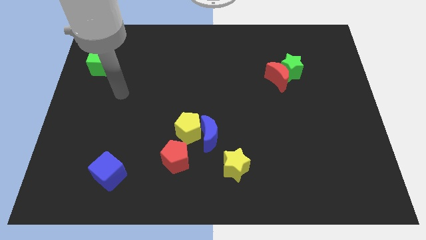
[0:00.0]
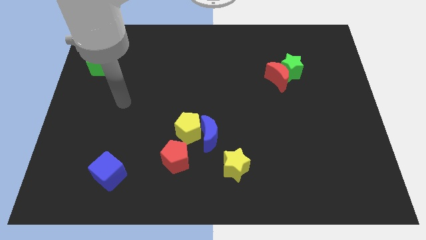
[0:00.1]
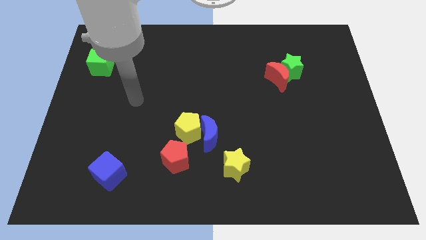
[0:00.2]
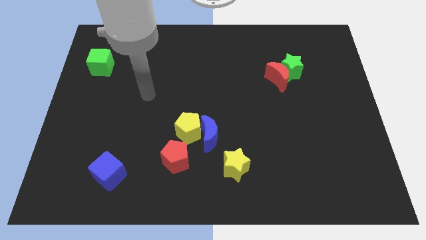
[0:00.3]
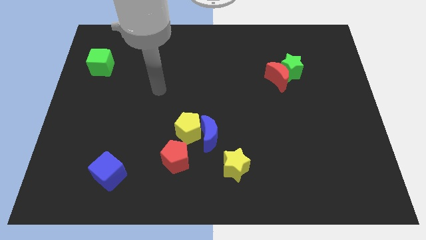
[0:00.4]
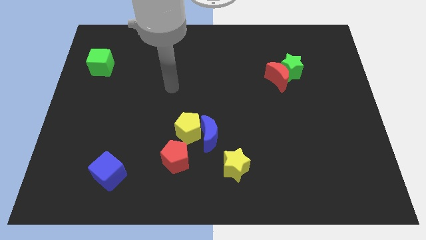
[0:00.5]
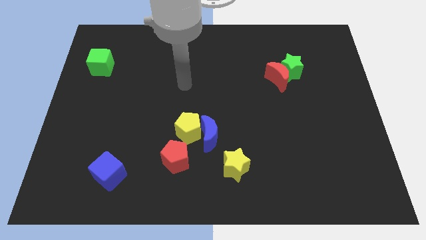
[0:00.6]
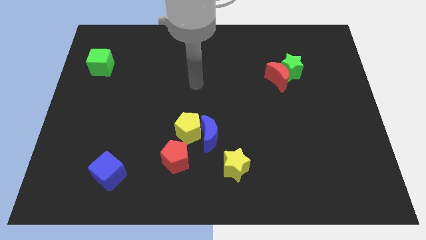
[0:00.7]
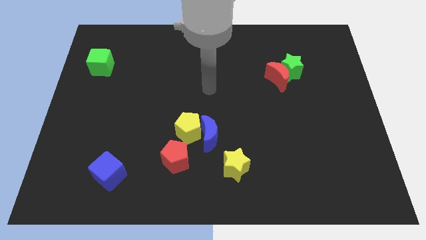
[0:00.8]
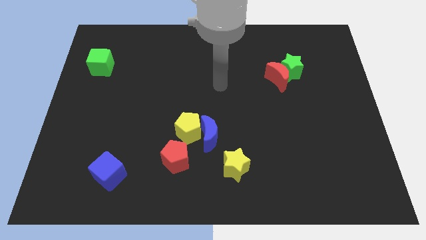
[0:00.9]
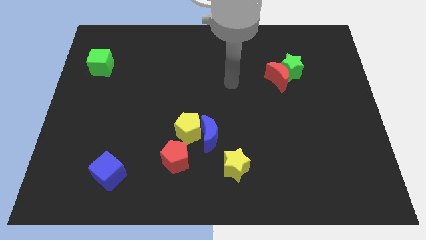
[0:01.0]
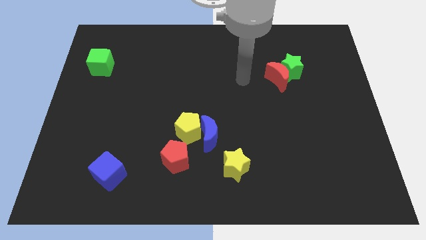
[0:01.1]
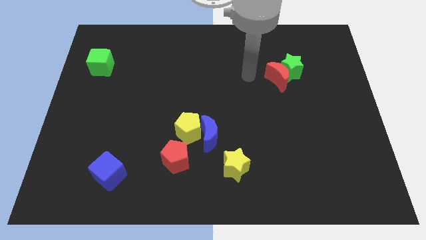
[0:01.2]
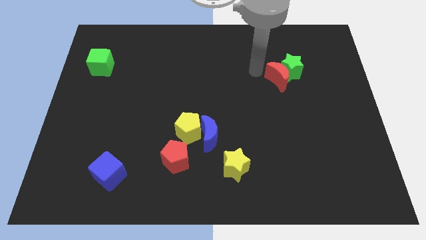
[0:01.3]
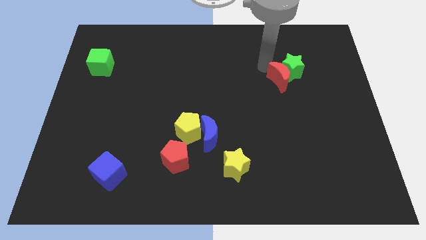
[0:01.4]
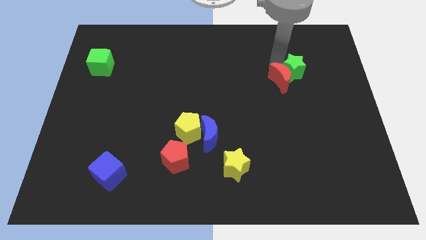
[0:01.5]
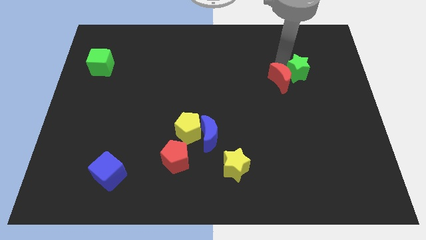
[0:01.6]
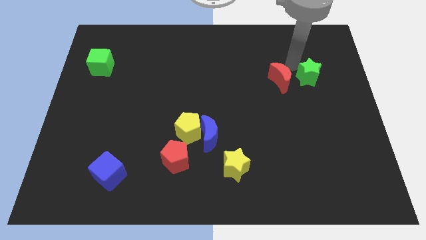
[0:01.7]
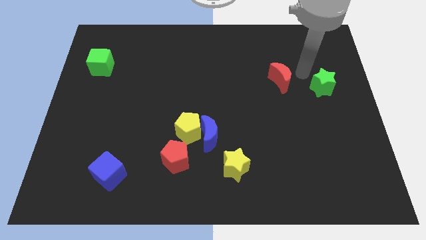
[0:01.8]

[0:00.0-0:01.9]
separate the red moon from the green star

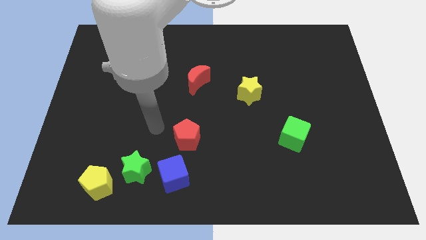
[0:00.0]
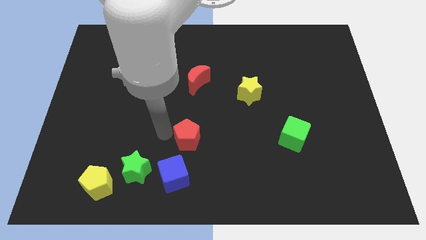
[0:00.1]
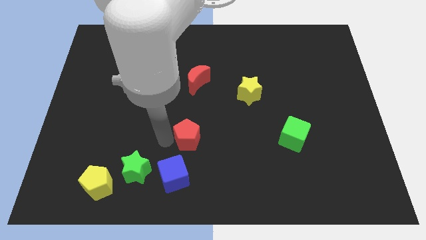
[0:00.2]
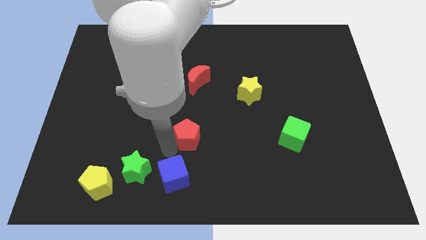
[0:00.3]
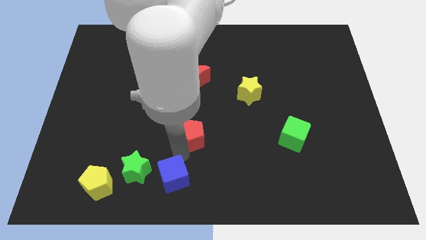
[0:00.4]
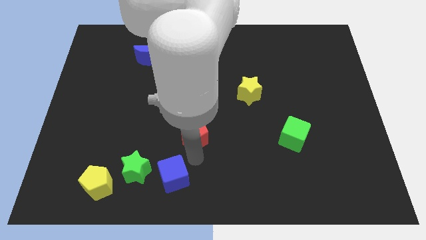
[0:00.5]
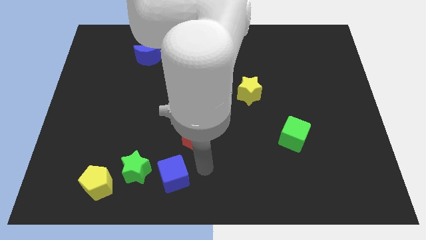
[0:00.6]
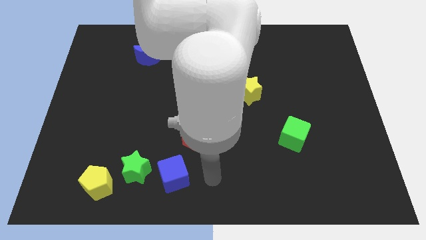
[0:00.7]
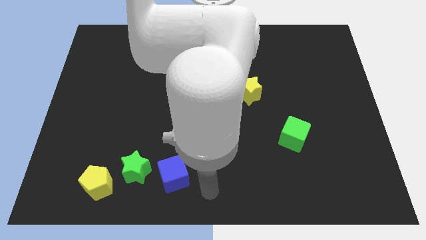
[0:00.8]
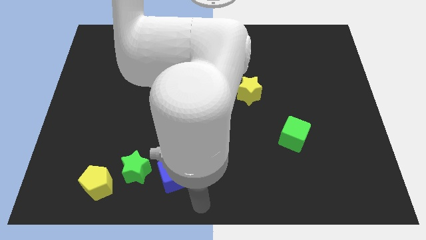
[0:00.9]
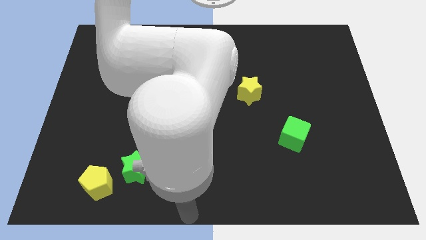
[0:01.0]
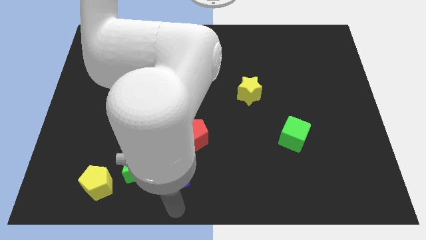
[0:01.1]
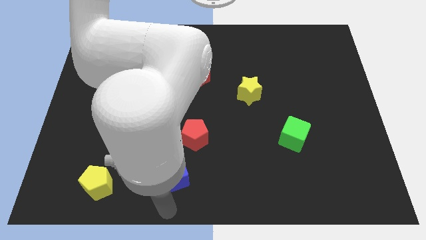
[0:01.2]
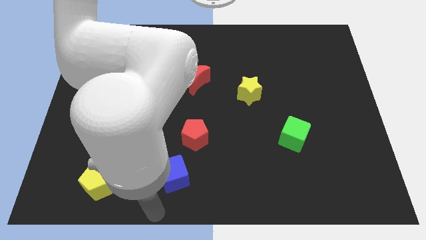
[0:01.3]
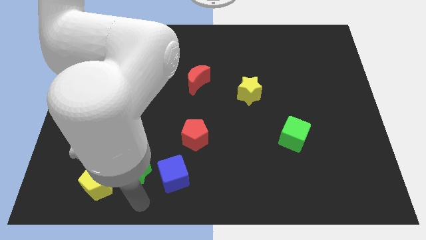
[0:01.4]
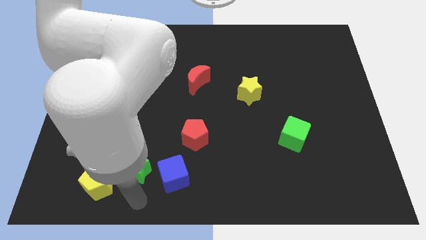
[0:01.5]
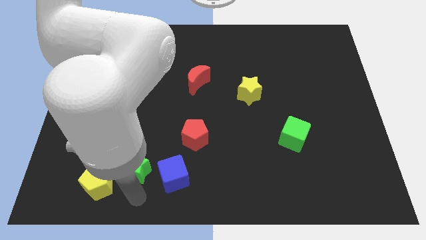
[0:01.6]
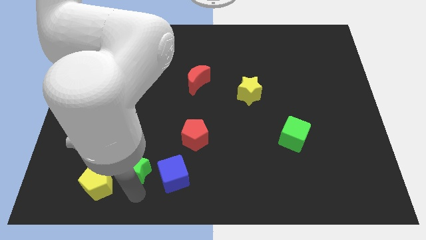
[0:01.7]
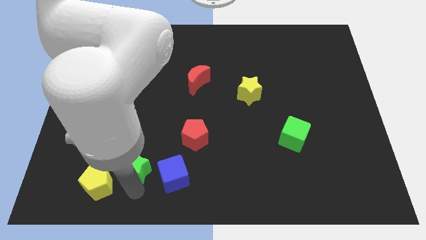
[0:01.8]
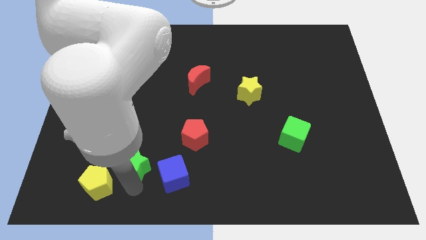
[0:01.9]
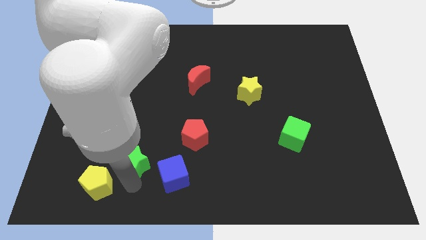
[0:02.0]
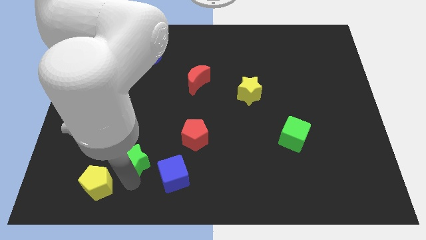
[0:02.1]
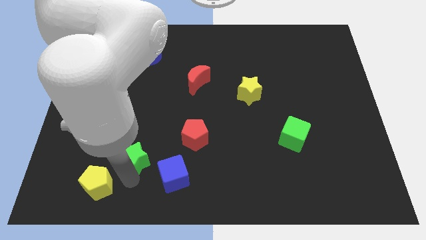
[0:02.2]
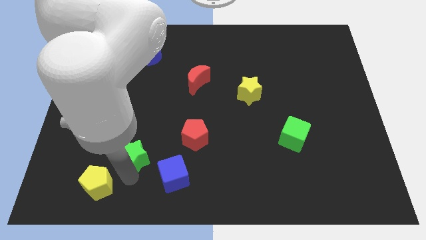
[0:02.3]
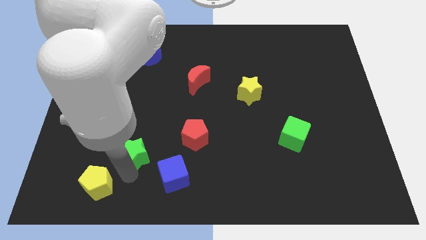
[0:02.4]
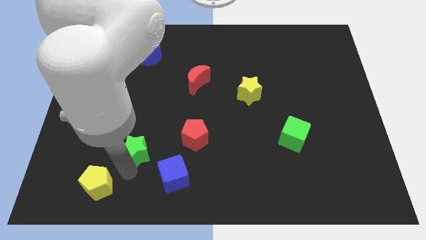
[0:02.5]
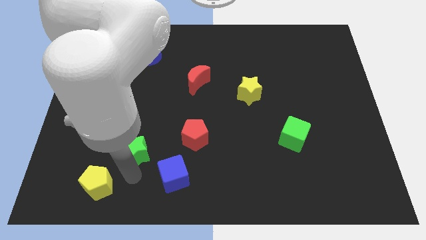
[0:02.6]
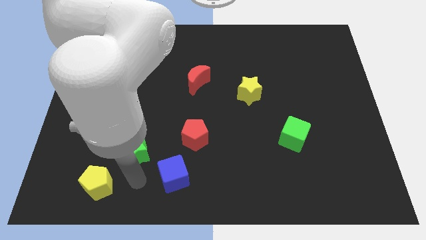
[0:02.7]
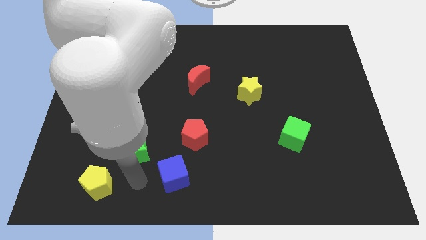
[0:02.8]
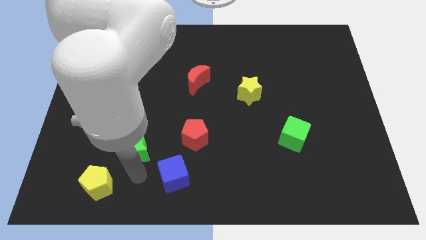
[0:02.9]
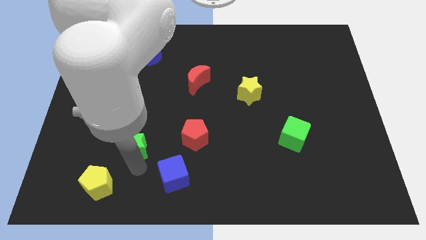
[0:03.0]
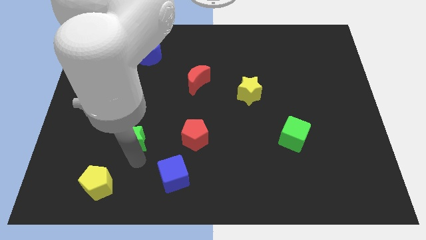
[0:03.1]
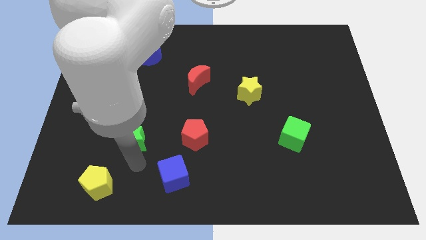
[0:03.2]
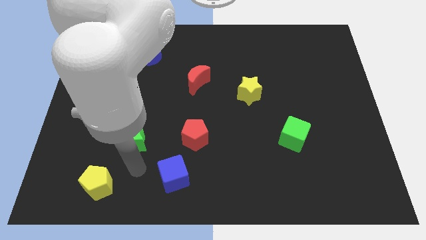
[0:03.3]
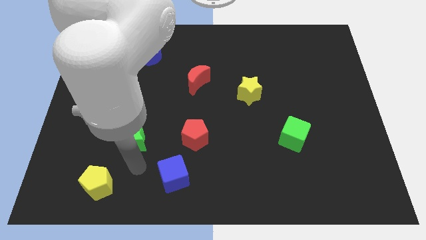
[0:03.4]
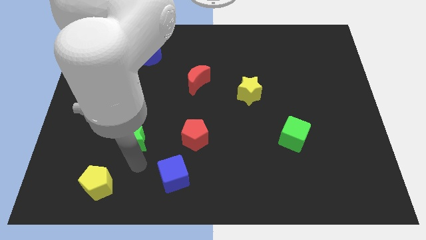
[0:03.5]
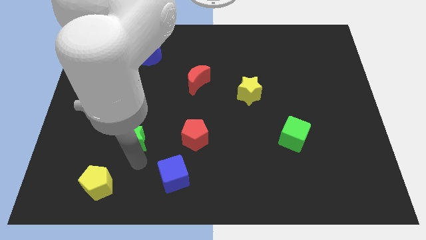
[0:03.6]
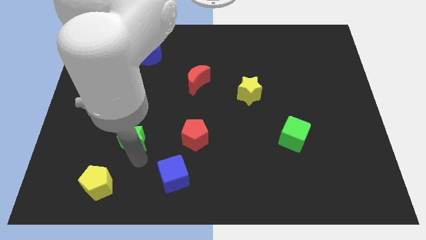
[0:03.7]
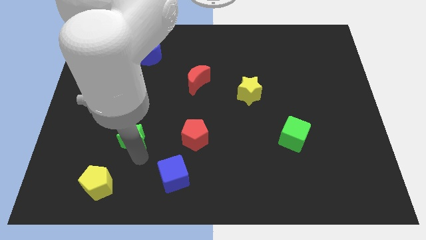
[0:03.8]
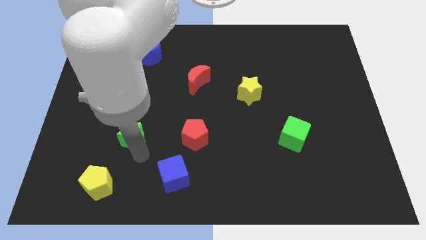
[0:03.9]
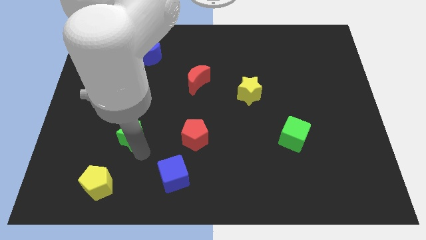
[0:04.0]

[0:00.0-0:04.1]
separate the green star from the blue cube and yellow pentagon

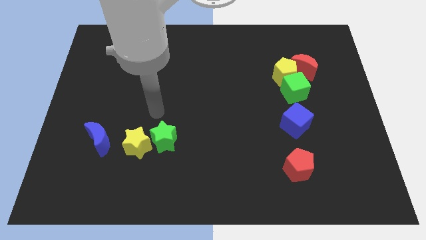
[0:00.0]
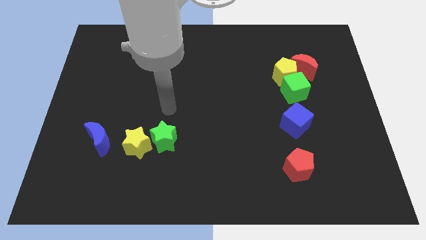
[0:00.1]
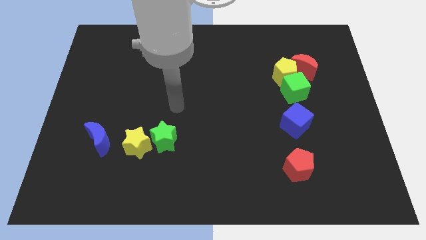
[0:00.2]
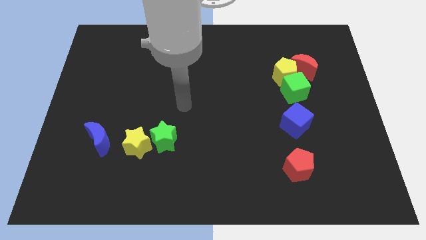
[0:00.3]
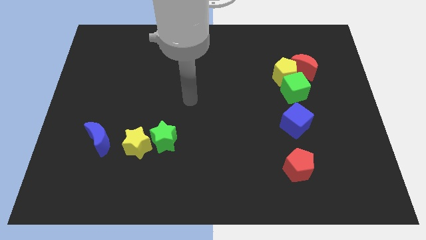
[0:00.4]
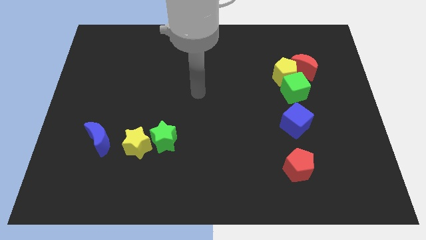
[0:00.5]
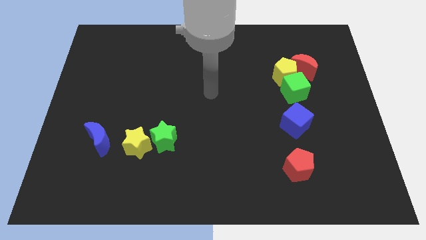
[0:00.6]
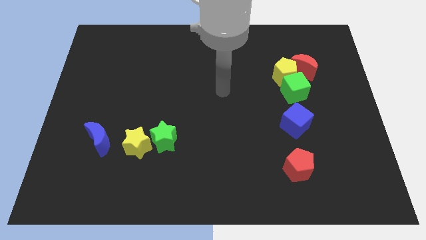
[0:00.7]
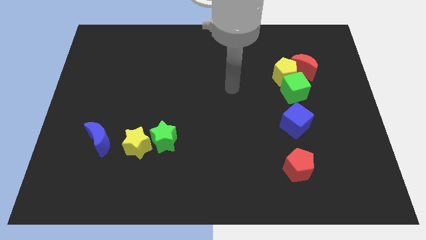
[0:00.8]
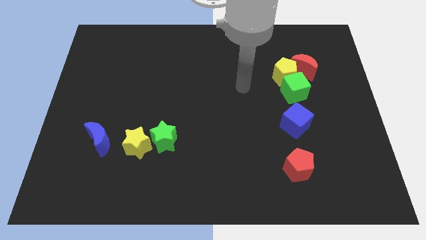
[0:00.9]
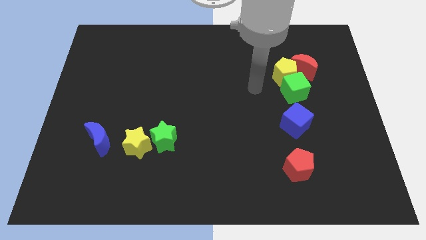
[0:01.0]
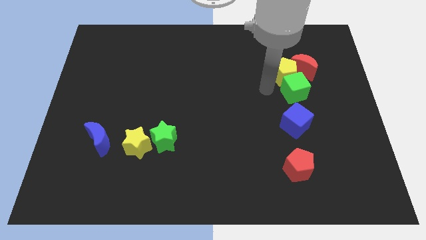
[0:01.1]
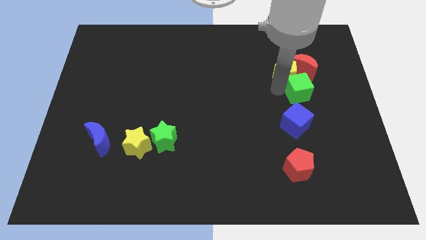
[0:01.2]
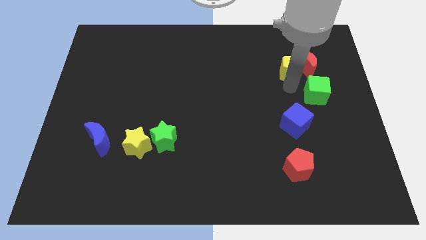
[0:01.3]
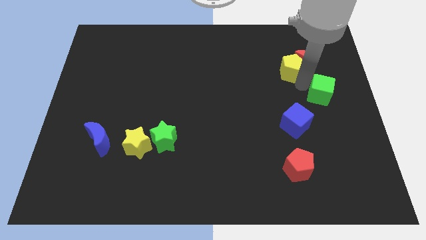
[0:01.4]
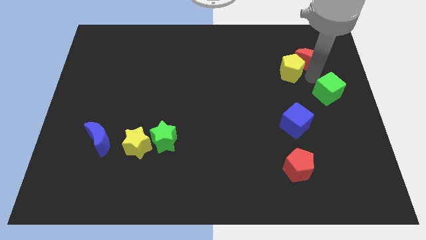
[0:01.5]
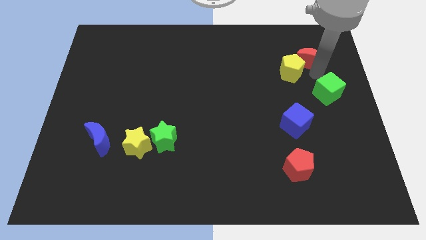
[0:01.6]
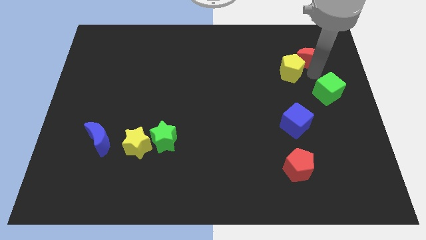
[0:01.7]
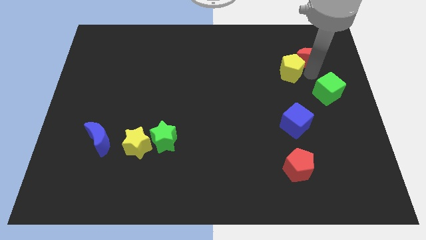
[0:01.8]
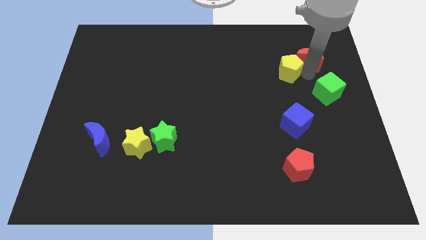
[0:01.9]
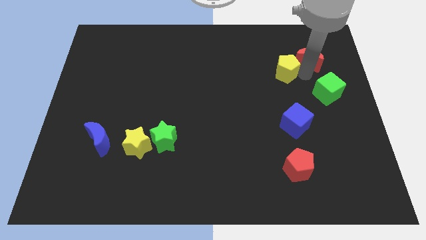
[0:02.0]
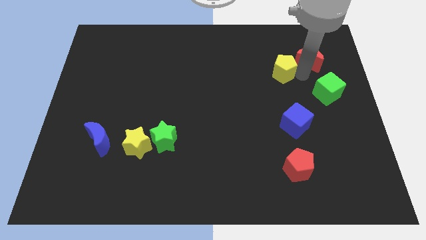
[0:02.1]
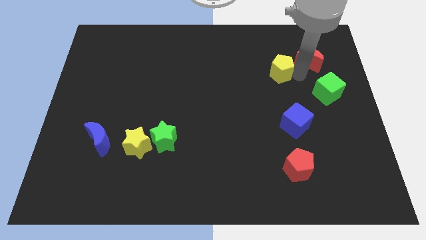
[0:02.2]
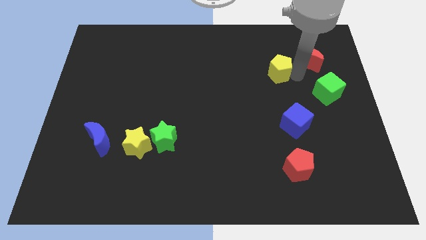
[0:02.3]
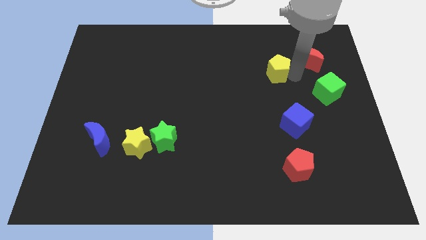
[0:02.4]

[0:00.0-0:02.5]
pull the yellow pentagon apart from the green cube and red moon

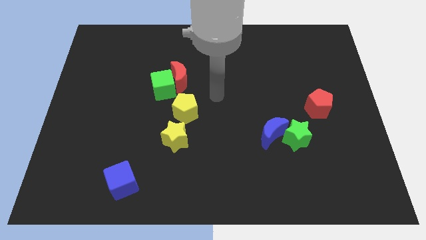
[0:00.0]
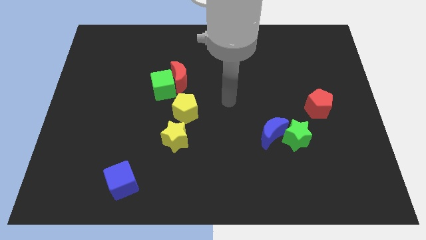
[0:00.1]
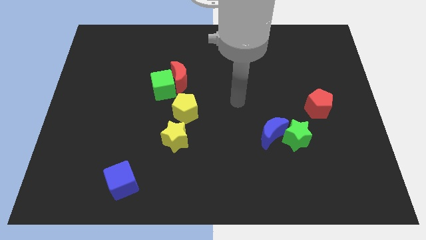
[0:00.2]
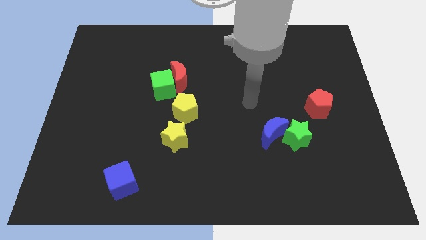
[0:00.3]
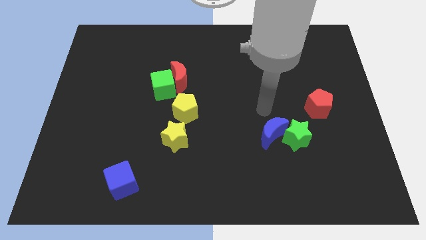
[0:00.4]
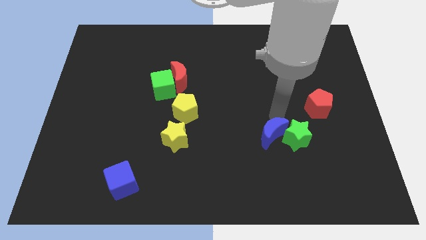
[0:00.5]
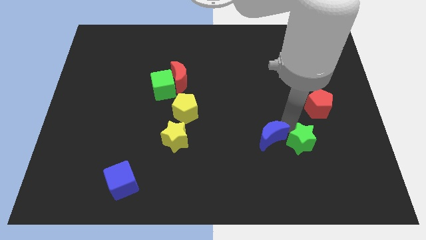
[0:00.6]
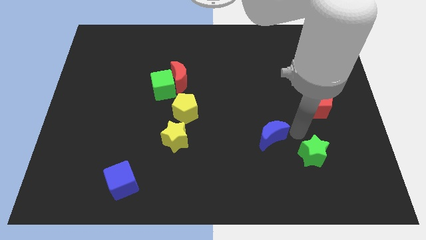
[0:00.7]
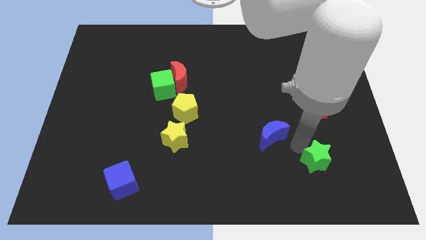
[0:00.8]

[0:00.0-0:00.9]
pull the blue moon apart from the green star
